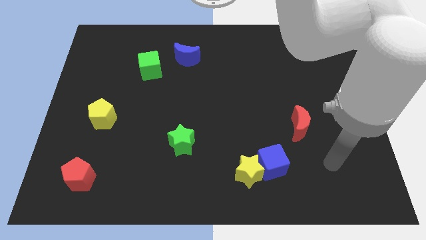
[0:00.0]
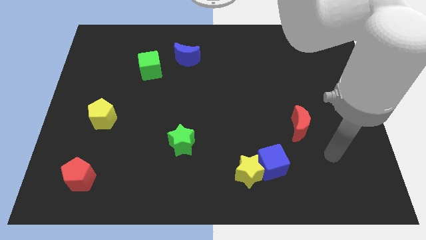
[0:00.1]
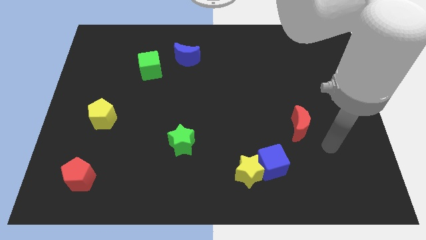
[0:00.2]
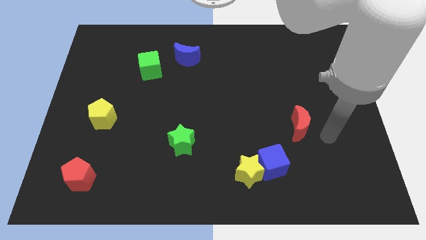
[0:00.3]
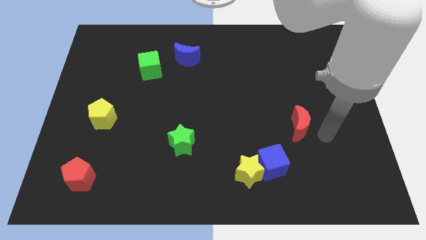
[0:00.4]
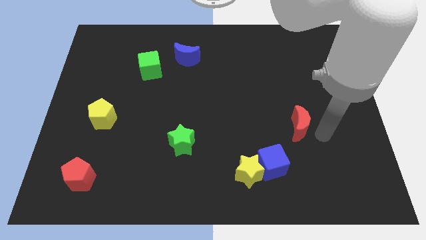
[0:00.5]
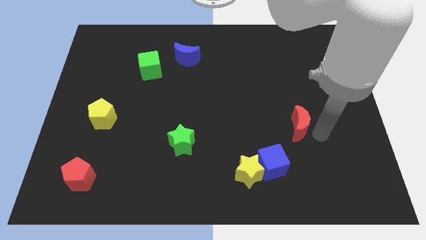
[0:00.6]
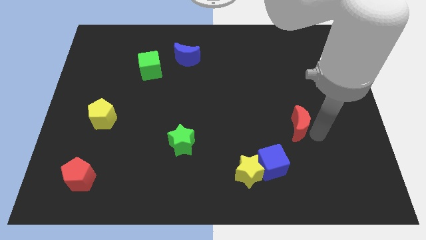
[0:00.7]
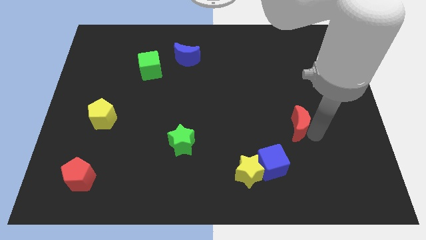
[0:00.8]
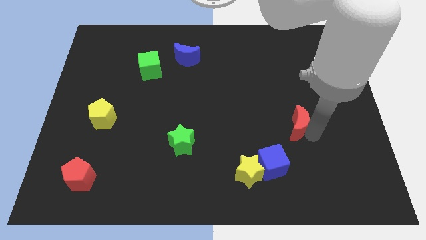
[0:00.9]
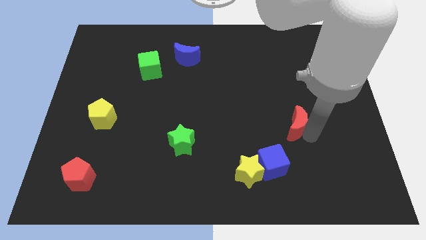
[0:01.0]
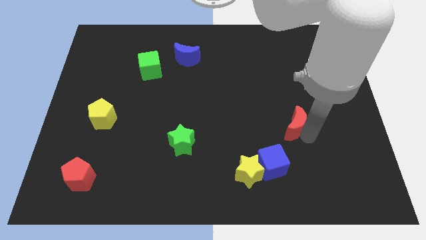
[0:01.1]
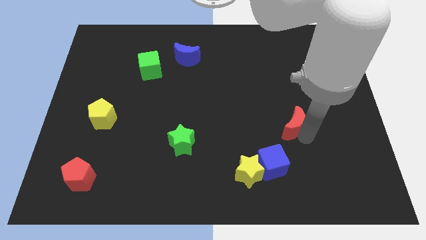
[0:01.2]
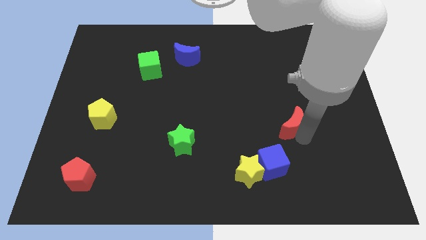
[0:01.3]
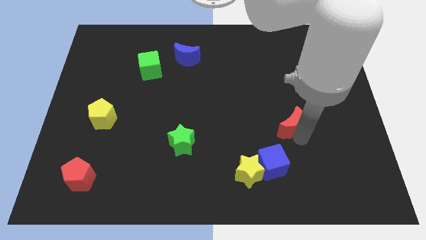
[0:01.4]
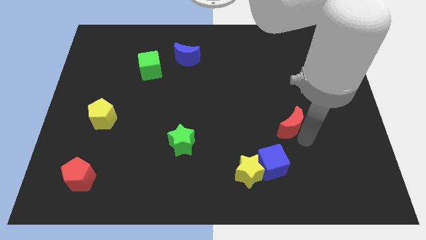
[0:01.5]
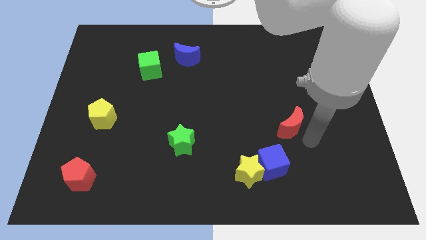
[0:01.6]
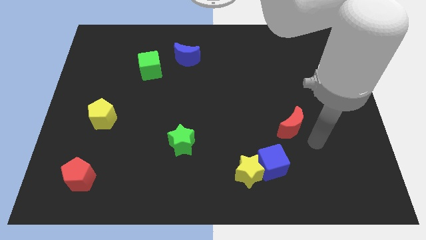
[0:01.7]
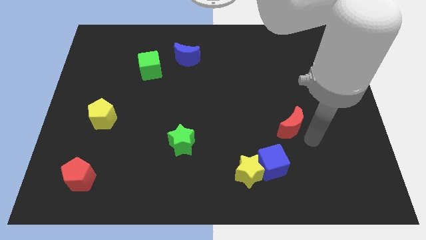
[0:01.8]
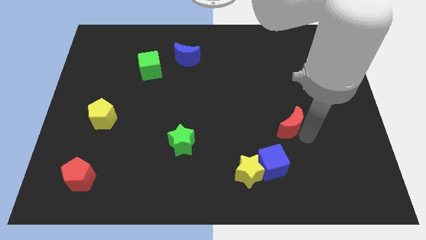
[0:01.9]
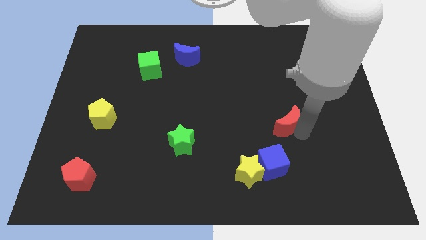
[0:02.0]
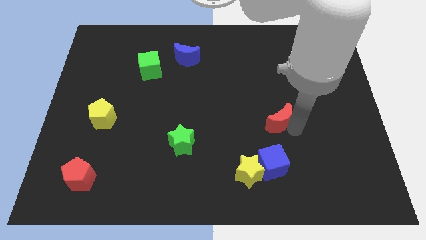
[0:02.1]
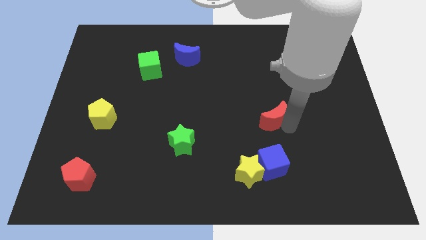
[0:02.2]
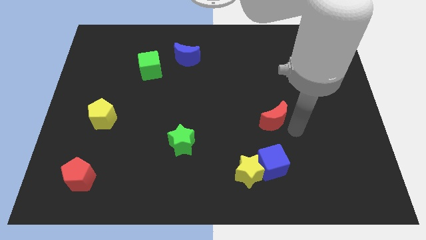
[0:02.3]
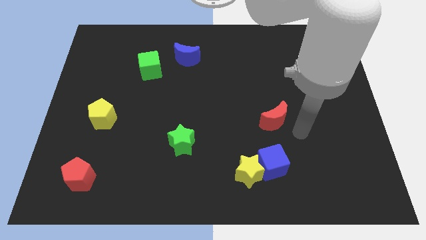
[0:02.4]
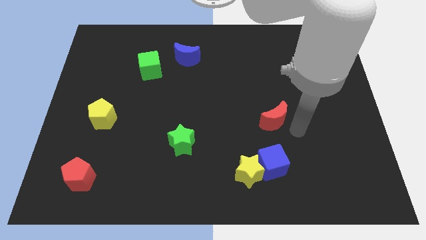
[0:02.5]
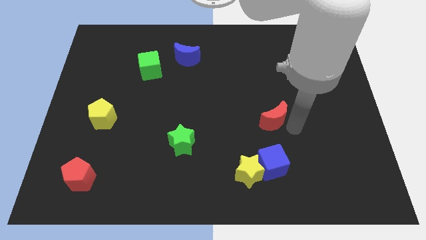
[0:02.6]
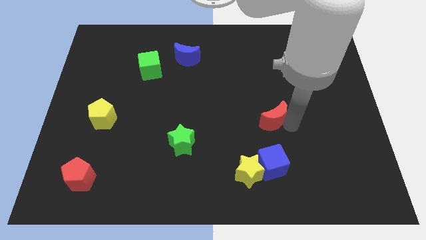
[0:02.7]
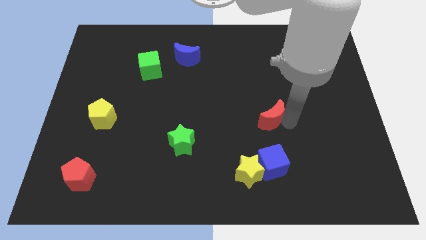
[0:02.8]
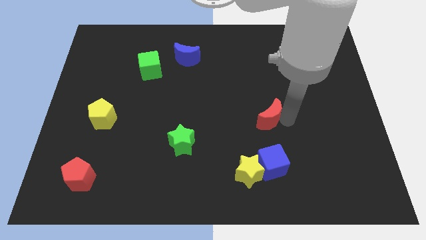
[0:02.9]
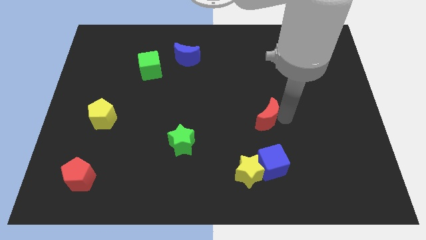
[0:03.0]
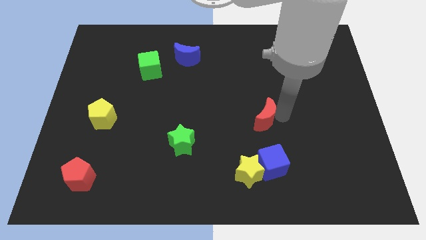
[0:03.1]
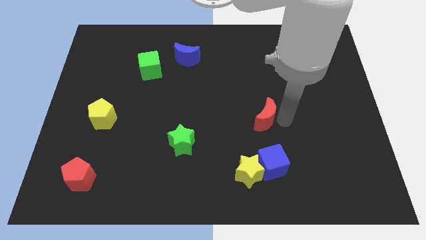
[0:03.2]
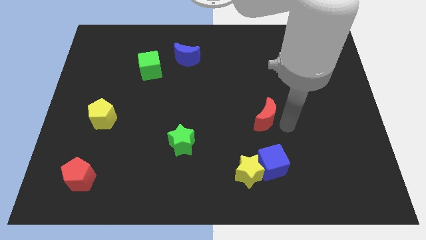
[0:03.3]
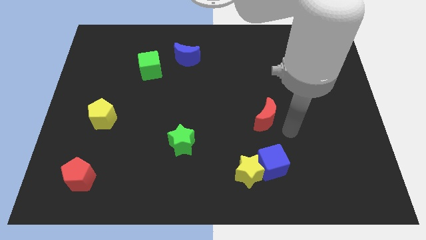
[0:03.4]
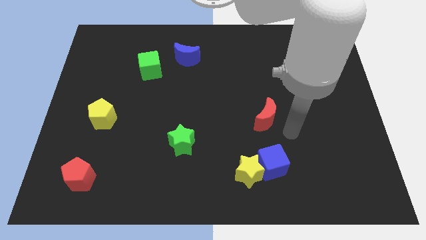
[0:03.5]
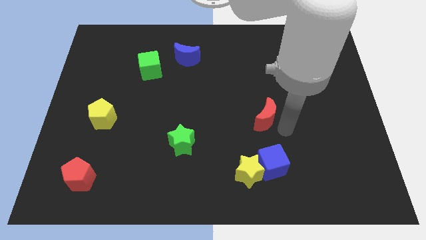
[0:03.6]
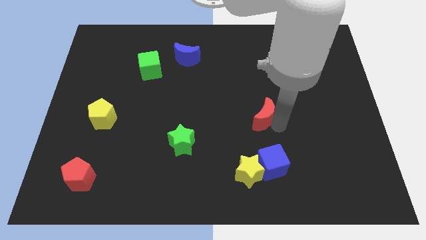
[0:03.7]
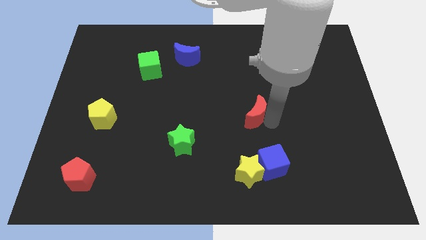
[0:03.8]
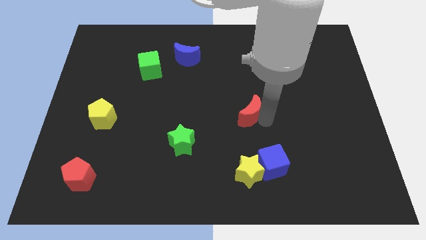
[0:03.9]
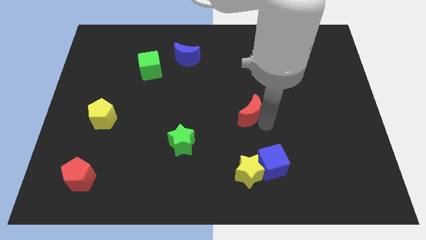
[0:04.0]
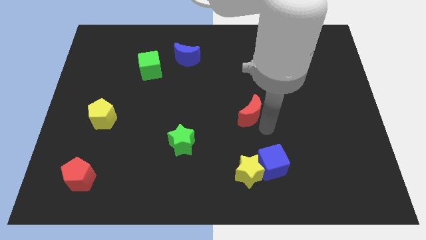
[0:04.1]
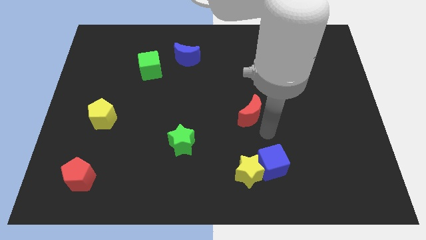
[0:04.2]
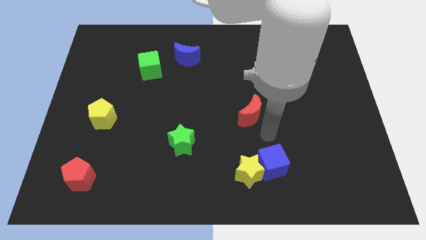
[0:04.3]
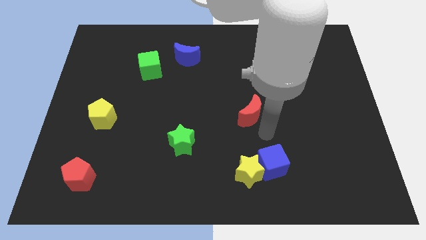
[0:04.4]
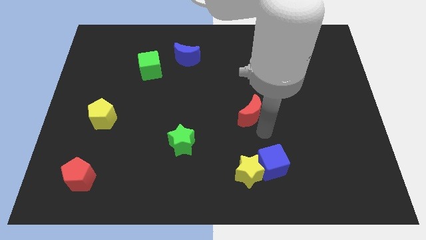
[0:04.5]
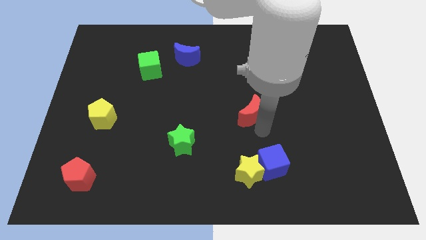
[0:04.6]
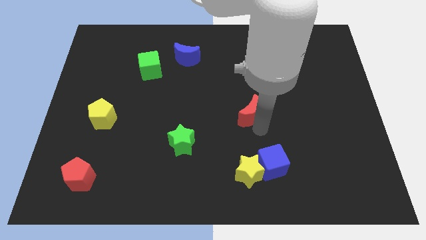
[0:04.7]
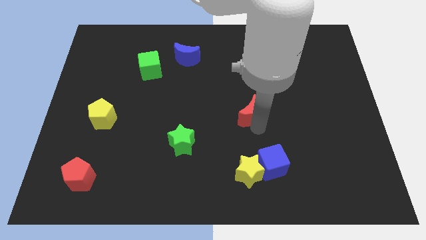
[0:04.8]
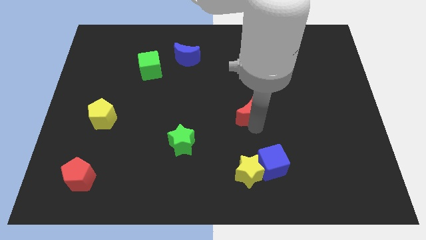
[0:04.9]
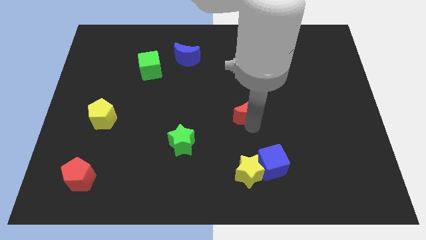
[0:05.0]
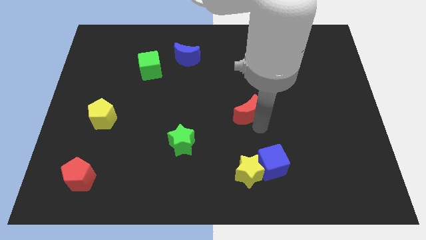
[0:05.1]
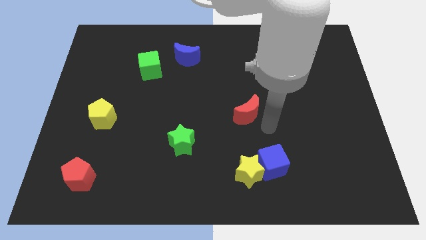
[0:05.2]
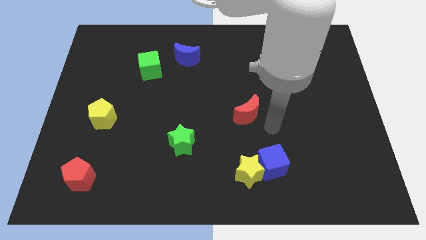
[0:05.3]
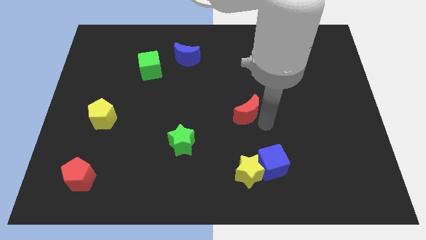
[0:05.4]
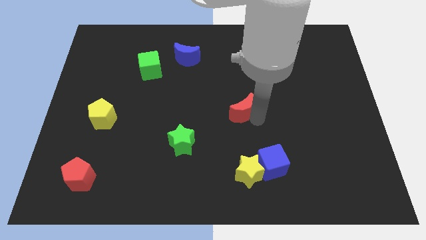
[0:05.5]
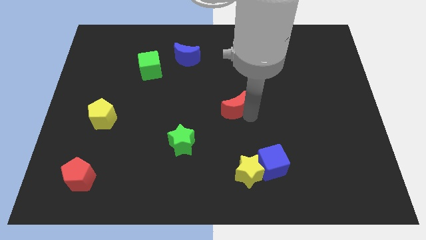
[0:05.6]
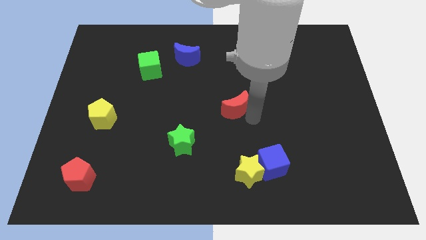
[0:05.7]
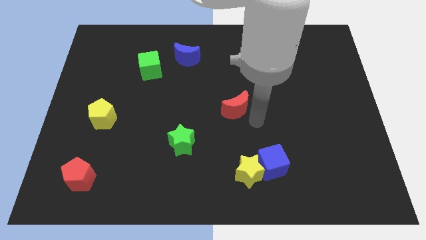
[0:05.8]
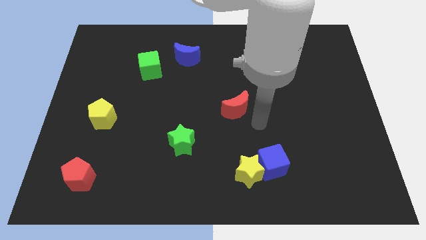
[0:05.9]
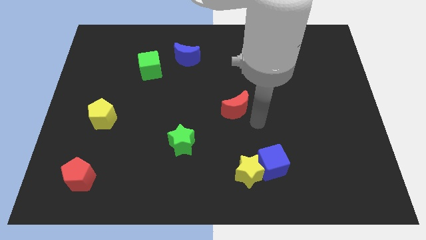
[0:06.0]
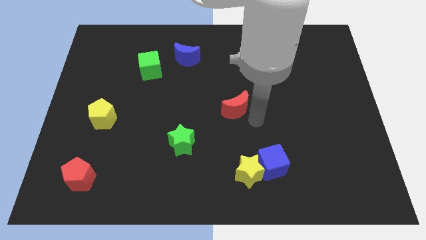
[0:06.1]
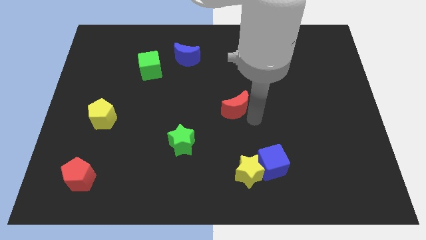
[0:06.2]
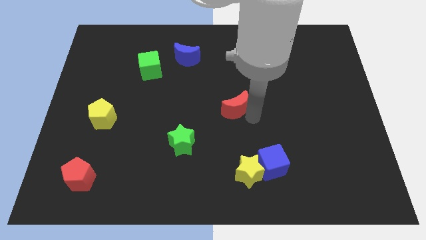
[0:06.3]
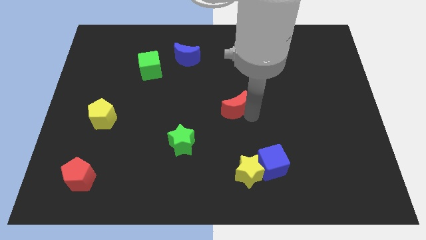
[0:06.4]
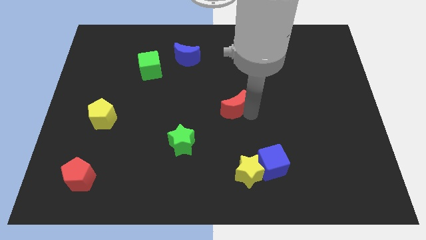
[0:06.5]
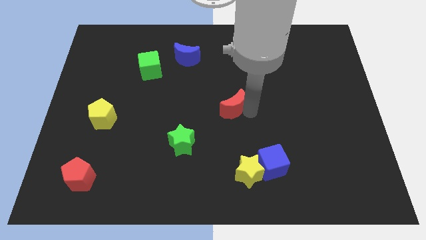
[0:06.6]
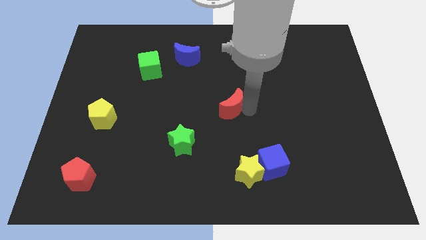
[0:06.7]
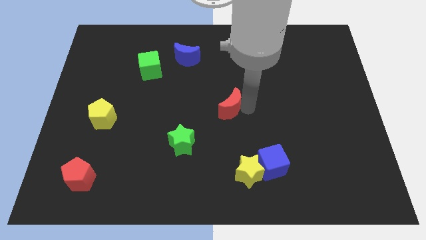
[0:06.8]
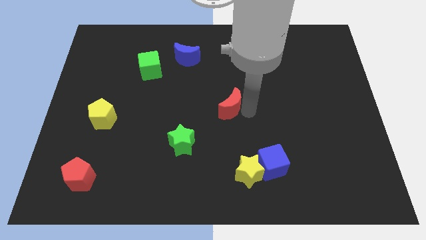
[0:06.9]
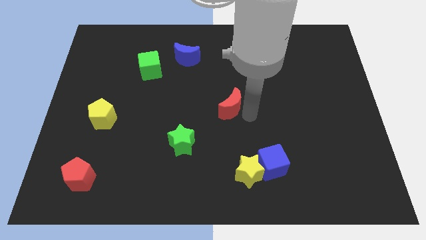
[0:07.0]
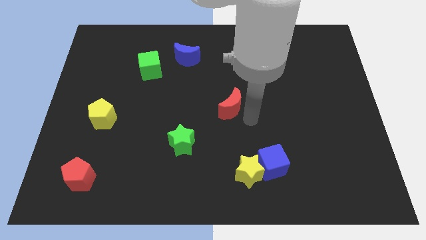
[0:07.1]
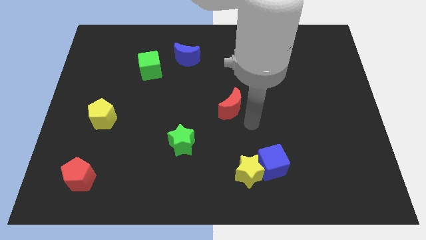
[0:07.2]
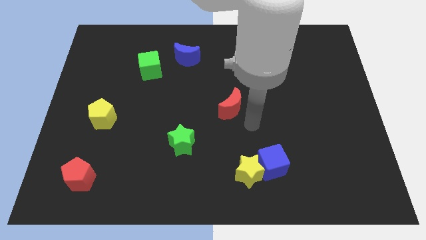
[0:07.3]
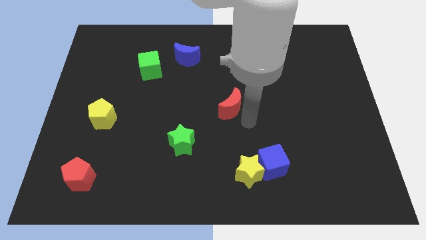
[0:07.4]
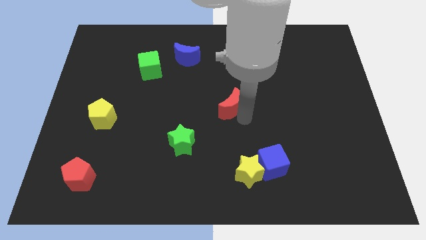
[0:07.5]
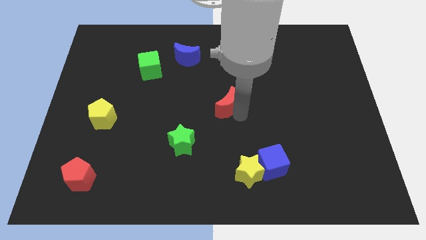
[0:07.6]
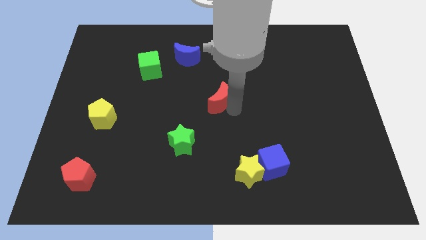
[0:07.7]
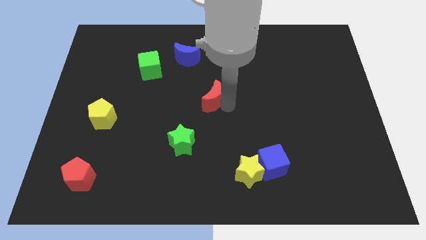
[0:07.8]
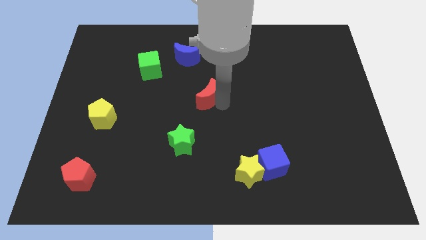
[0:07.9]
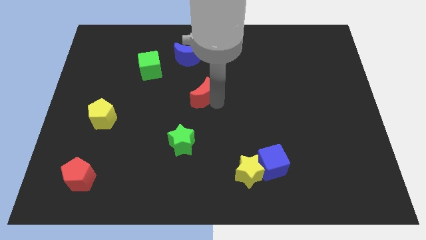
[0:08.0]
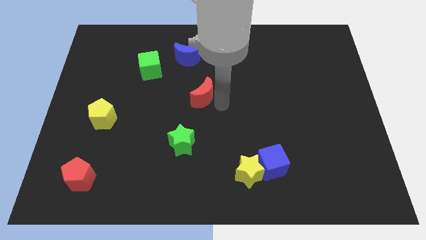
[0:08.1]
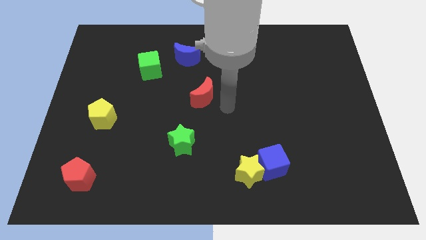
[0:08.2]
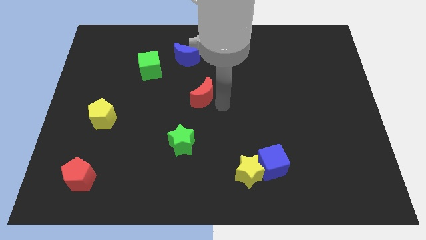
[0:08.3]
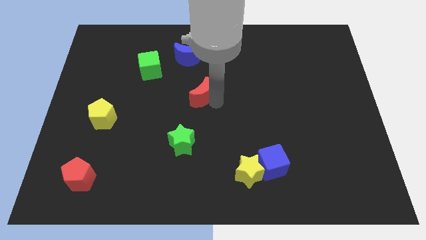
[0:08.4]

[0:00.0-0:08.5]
push the red moon to the bottom side of the blue moon
